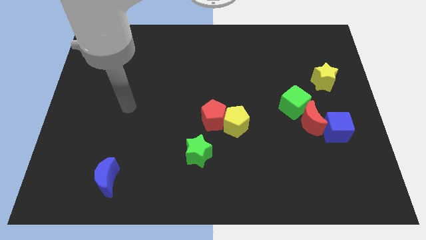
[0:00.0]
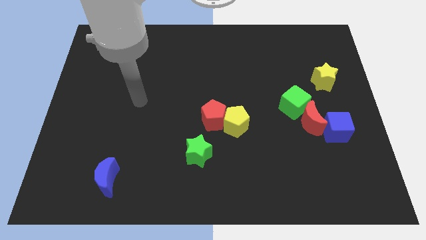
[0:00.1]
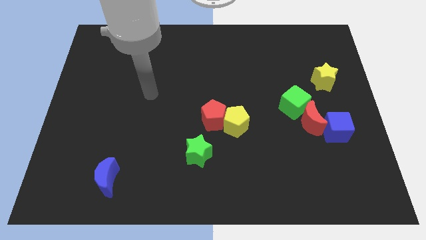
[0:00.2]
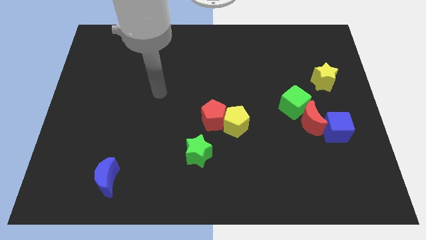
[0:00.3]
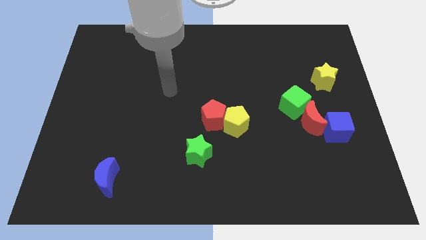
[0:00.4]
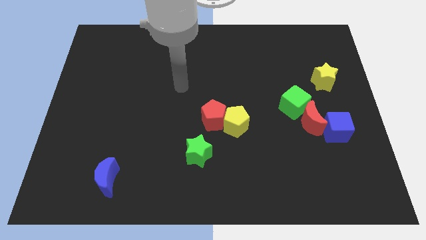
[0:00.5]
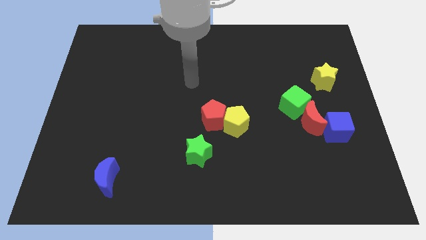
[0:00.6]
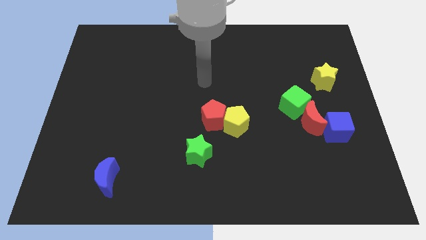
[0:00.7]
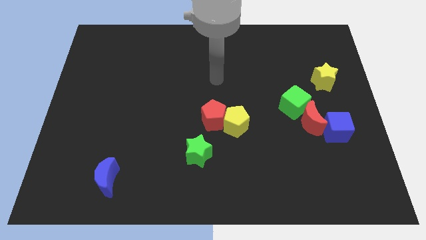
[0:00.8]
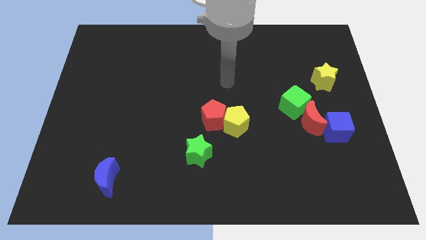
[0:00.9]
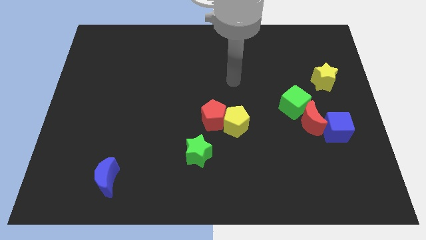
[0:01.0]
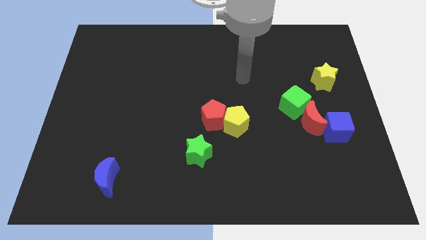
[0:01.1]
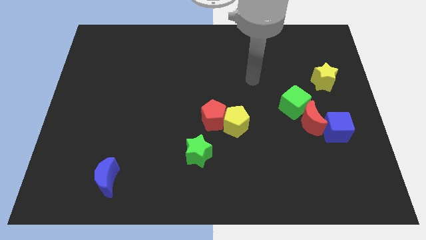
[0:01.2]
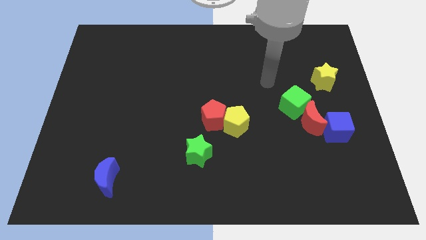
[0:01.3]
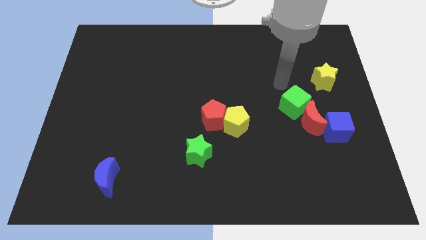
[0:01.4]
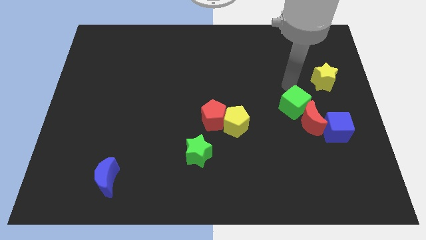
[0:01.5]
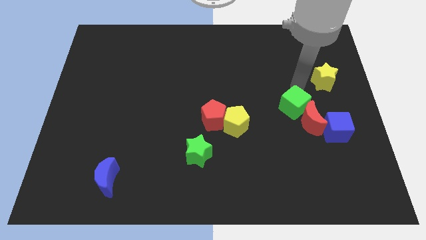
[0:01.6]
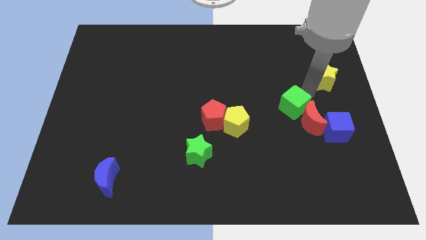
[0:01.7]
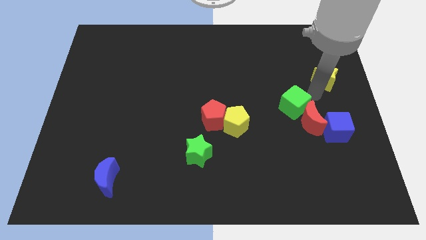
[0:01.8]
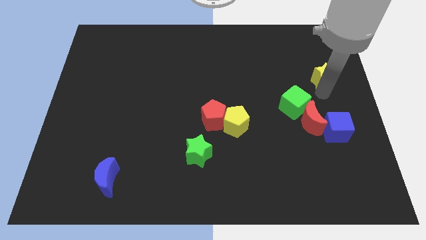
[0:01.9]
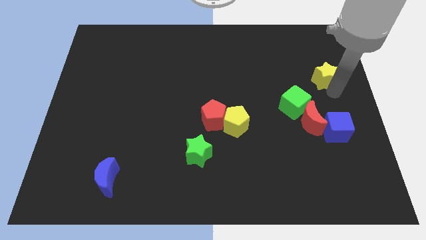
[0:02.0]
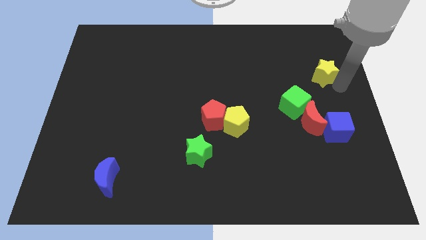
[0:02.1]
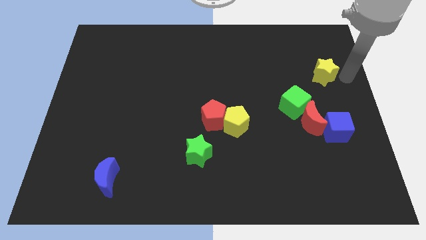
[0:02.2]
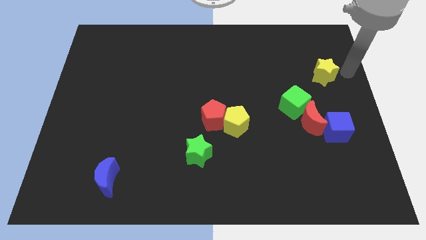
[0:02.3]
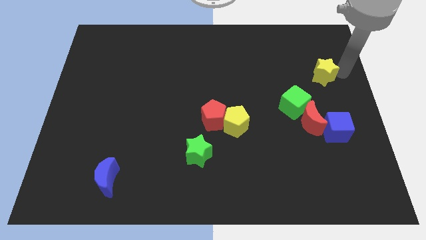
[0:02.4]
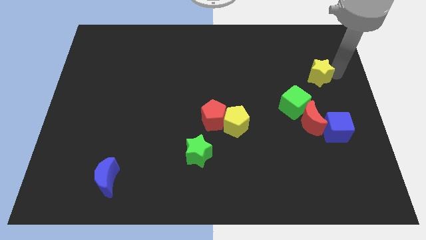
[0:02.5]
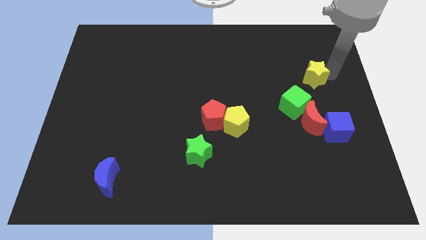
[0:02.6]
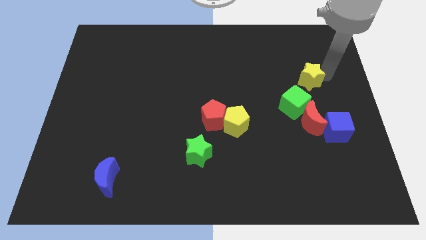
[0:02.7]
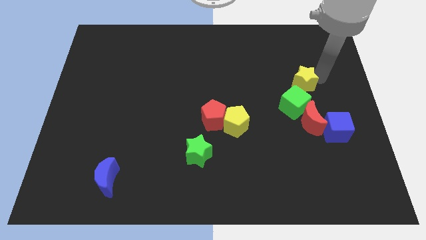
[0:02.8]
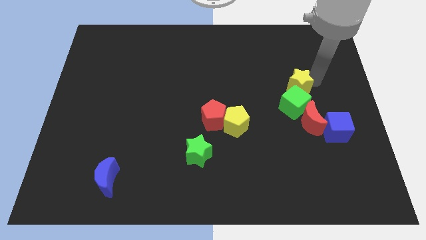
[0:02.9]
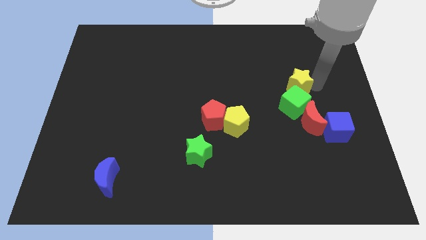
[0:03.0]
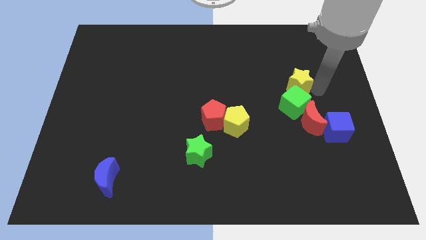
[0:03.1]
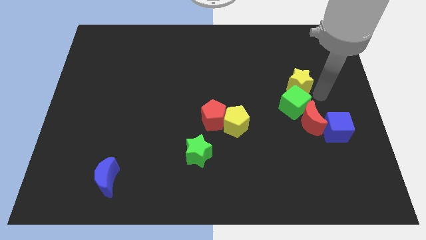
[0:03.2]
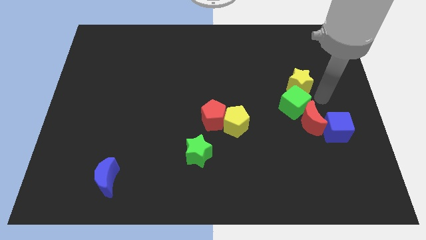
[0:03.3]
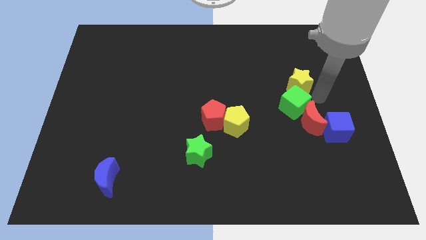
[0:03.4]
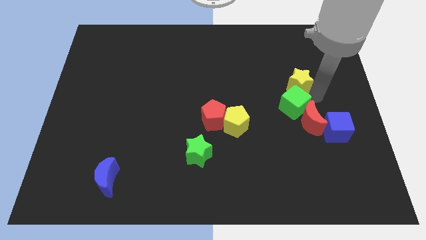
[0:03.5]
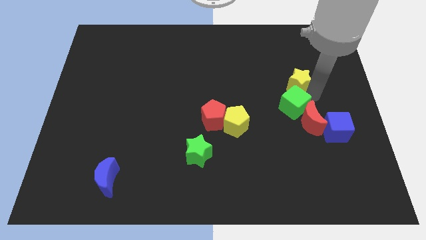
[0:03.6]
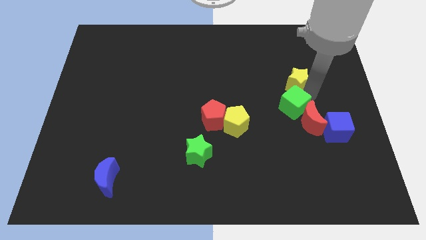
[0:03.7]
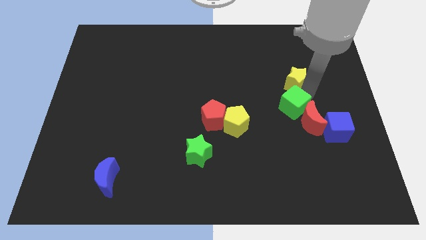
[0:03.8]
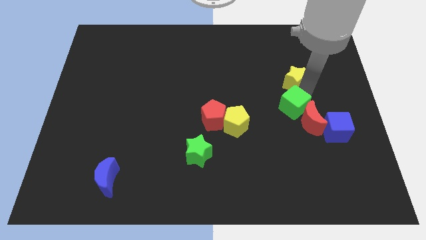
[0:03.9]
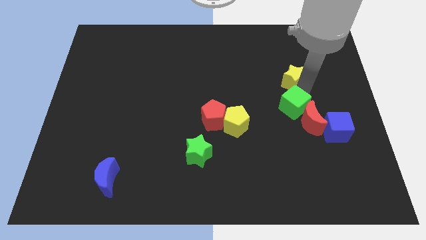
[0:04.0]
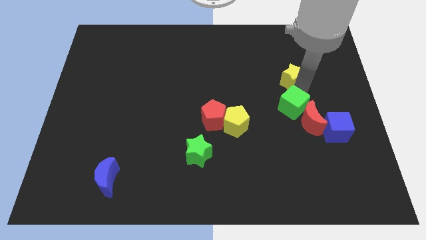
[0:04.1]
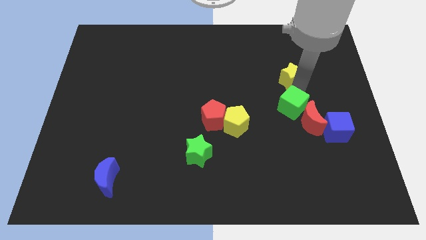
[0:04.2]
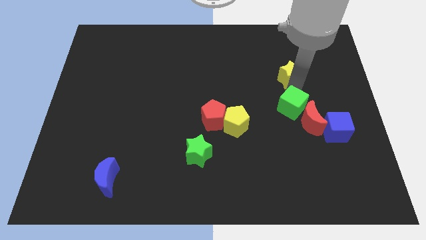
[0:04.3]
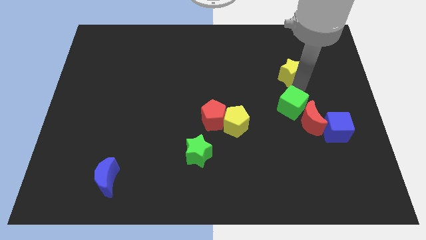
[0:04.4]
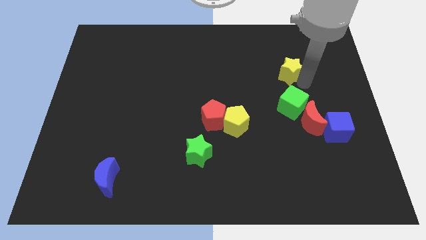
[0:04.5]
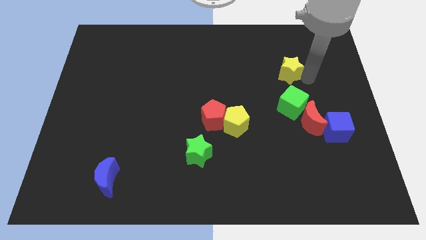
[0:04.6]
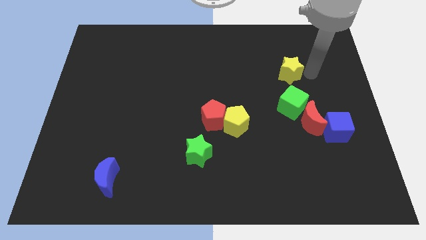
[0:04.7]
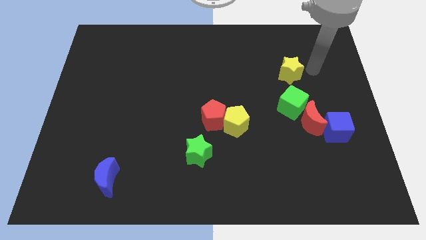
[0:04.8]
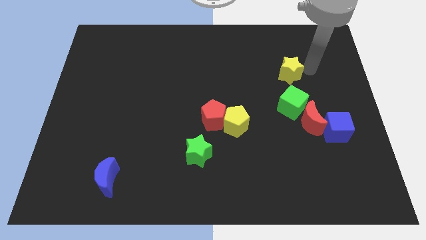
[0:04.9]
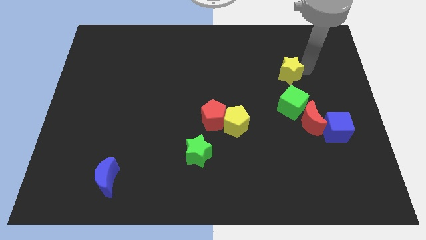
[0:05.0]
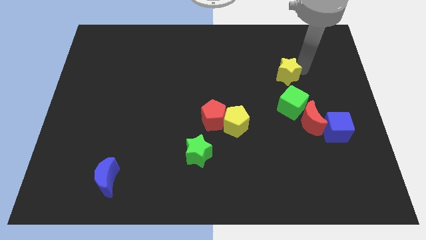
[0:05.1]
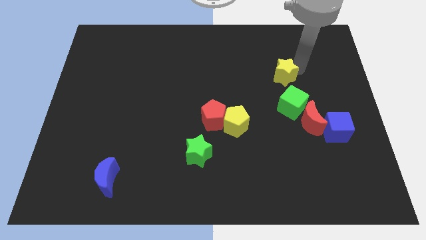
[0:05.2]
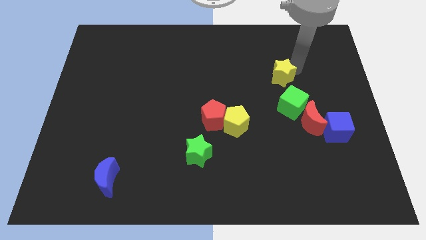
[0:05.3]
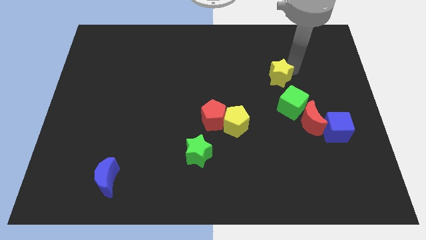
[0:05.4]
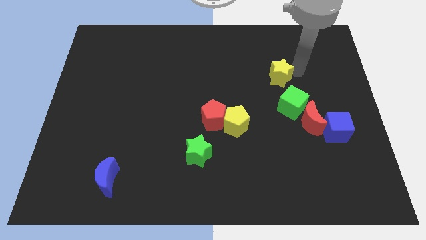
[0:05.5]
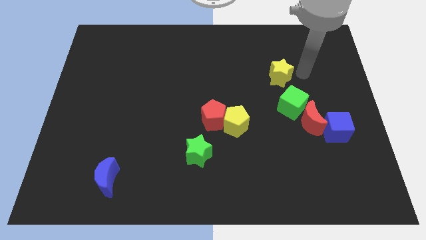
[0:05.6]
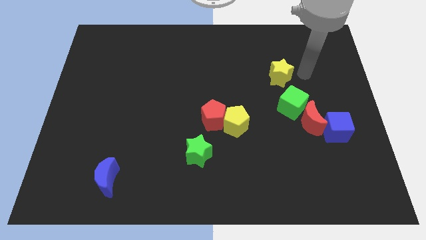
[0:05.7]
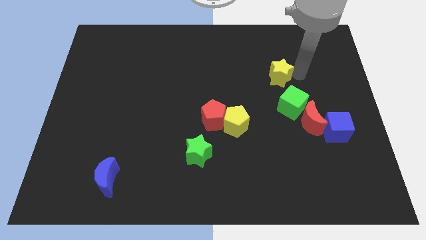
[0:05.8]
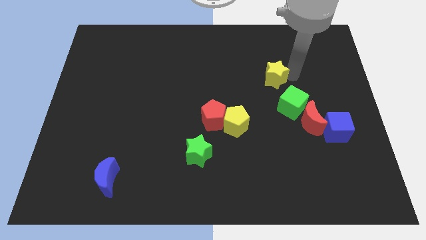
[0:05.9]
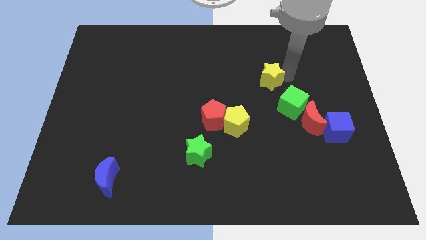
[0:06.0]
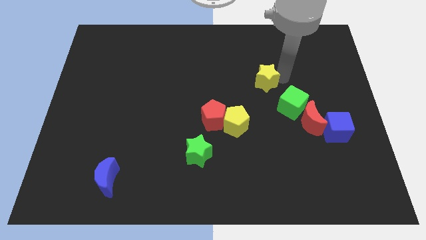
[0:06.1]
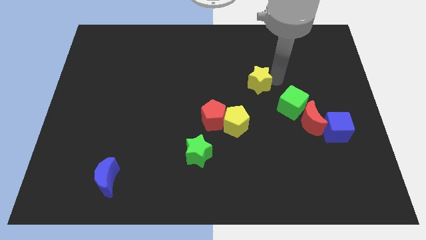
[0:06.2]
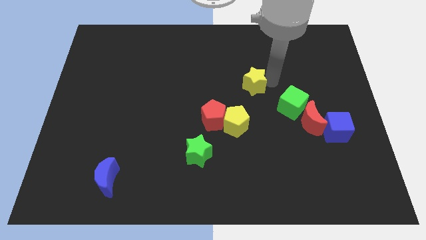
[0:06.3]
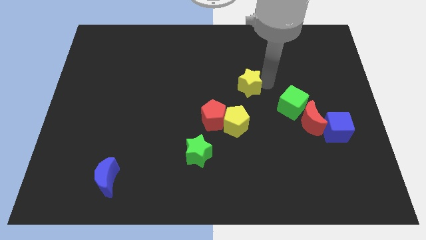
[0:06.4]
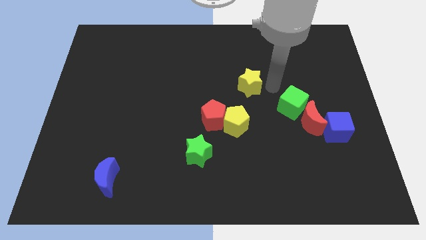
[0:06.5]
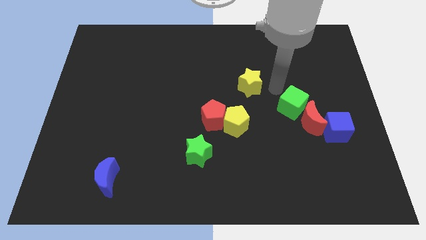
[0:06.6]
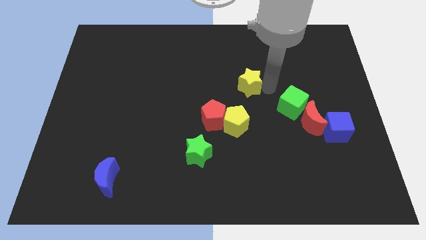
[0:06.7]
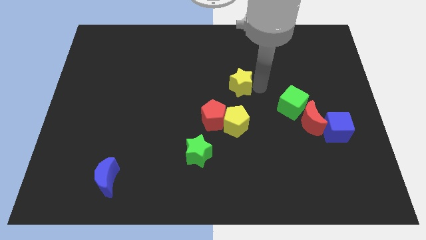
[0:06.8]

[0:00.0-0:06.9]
move the yellow star left

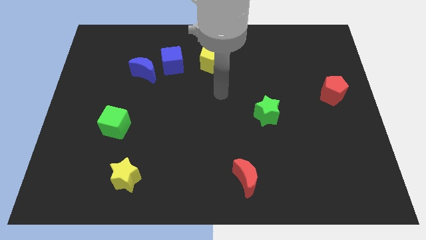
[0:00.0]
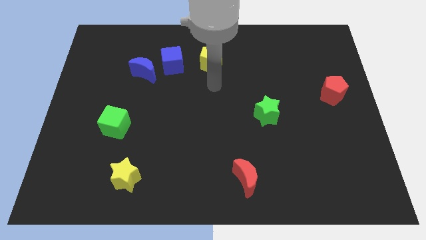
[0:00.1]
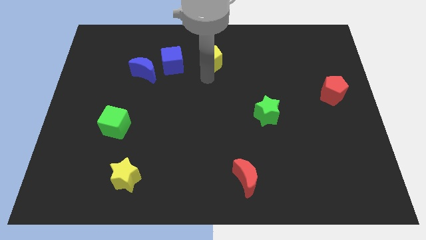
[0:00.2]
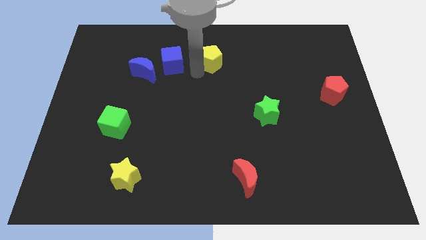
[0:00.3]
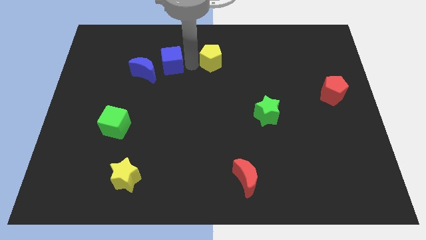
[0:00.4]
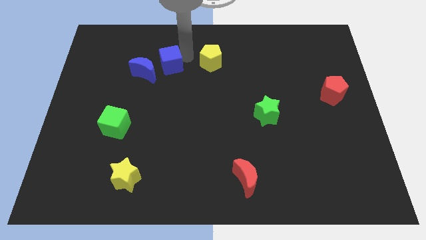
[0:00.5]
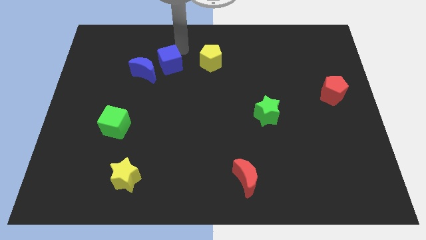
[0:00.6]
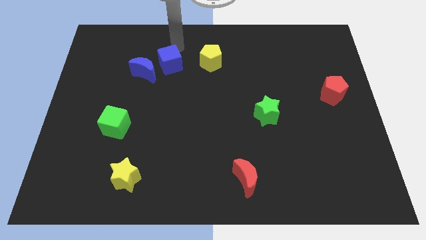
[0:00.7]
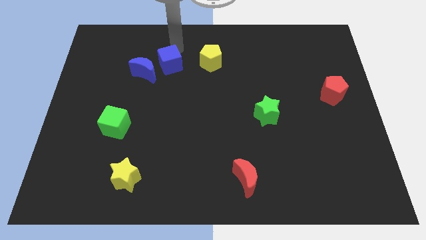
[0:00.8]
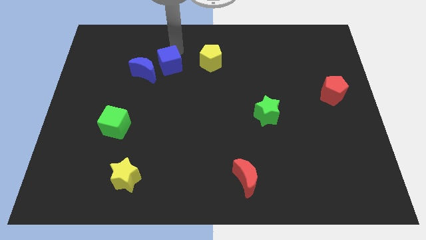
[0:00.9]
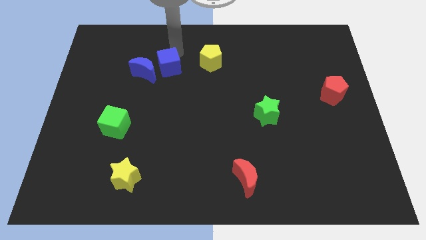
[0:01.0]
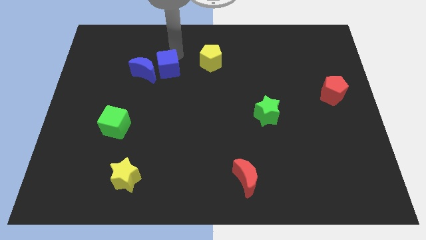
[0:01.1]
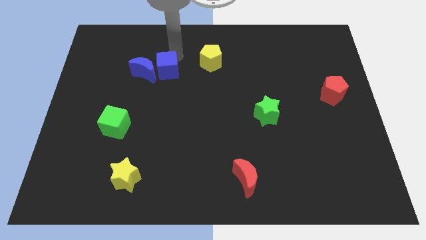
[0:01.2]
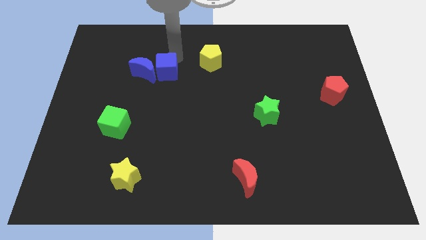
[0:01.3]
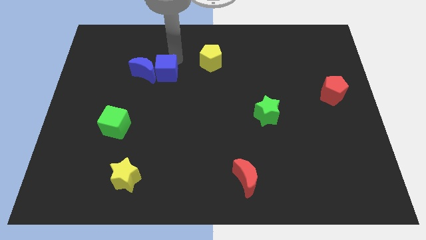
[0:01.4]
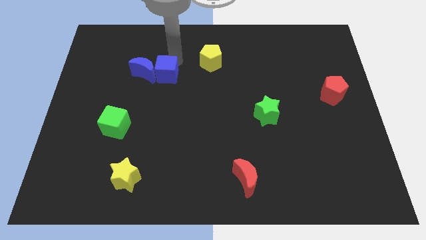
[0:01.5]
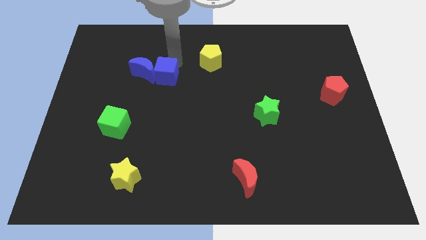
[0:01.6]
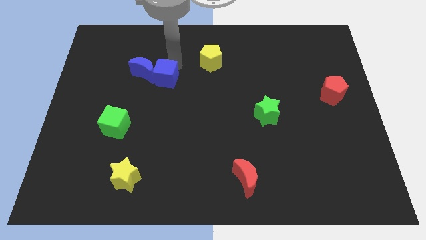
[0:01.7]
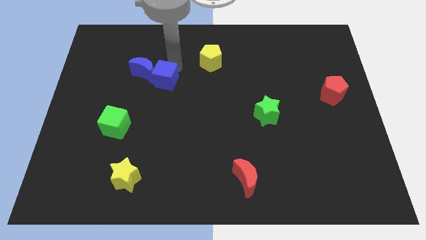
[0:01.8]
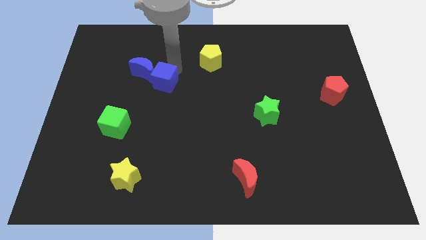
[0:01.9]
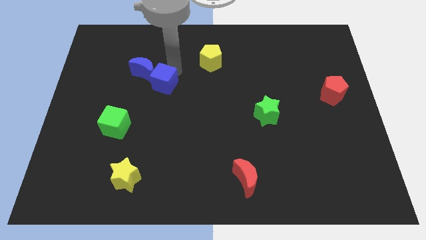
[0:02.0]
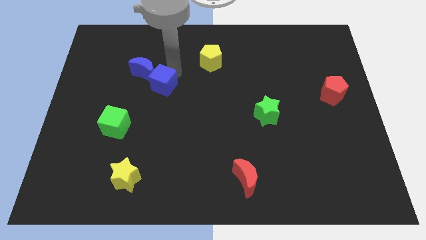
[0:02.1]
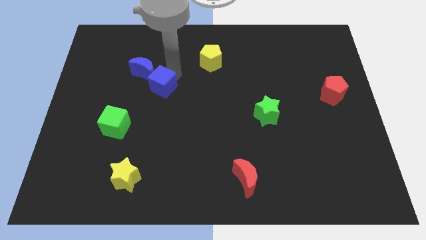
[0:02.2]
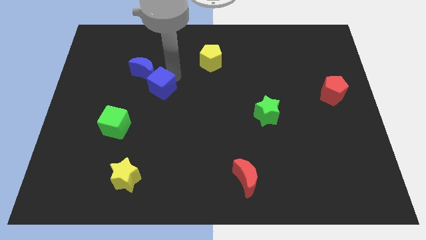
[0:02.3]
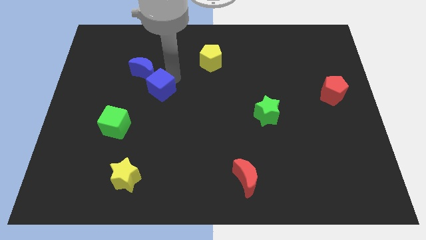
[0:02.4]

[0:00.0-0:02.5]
slightly push the blue cube diagonally down and left
